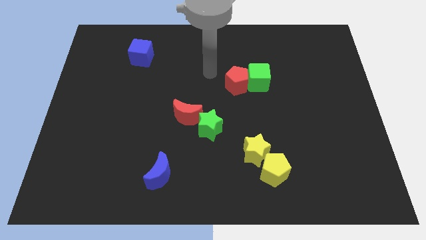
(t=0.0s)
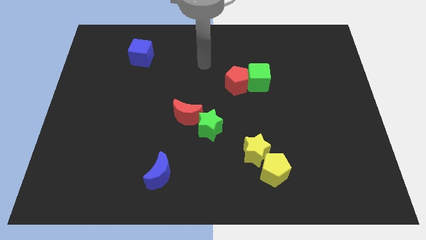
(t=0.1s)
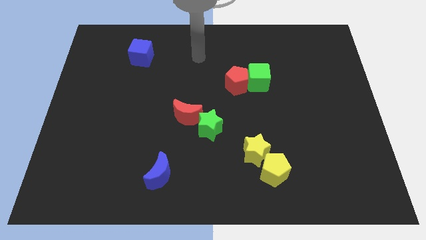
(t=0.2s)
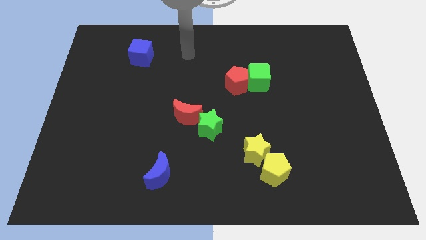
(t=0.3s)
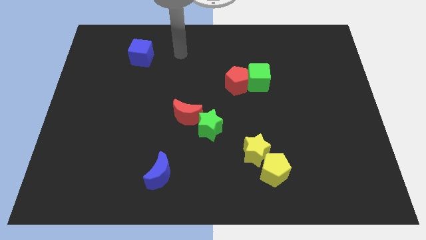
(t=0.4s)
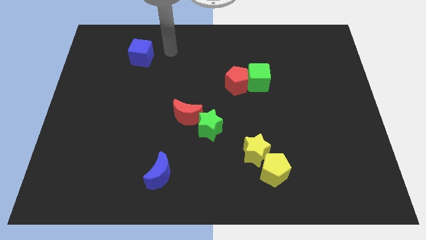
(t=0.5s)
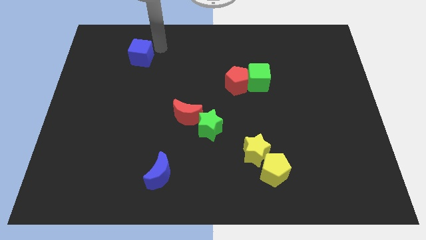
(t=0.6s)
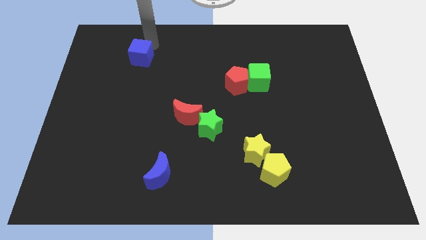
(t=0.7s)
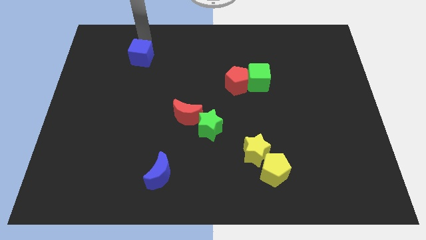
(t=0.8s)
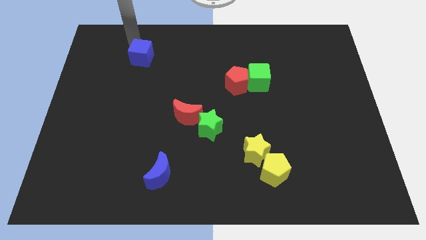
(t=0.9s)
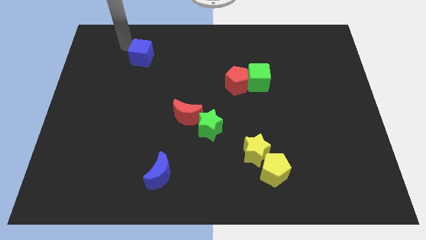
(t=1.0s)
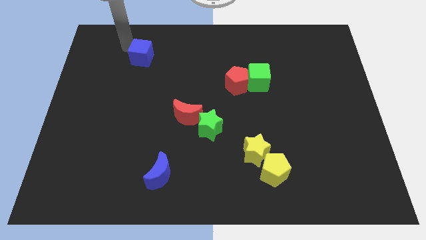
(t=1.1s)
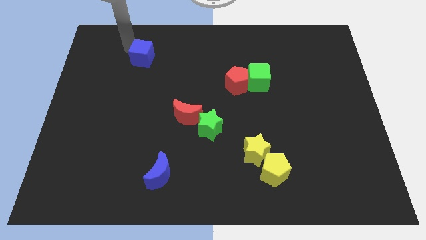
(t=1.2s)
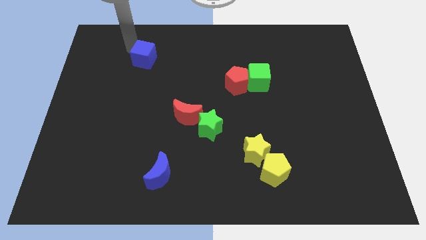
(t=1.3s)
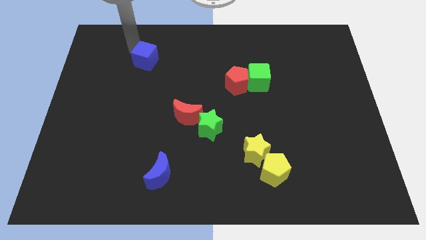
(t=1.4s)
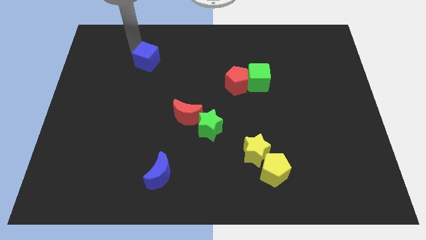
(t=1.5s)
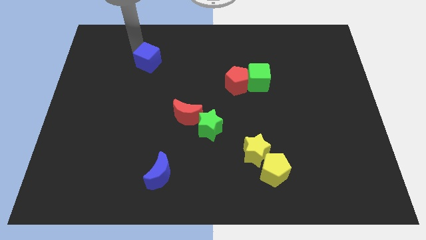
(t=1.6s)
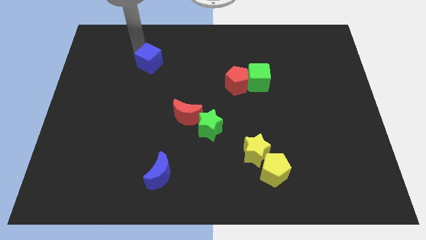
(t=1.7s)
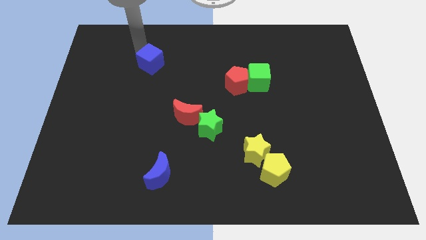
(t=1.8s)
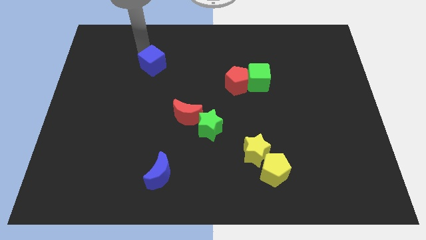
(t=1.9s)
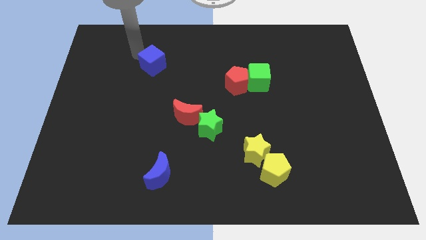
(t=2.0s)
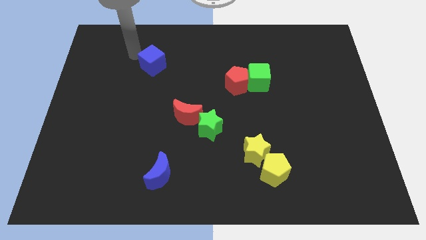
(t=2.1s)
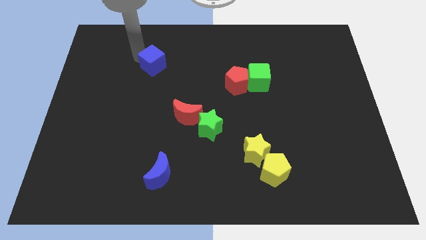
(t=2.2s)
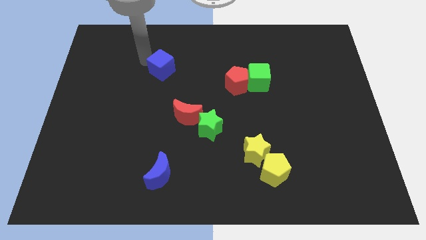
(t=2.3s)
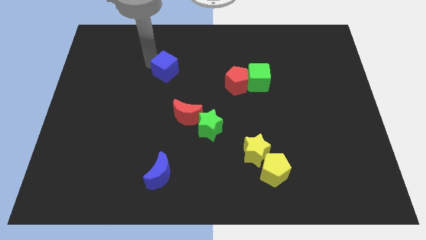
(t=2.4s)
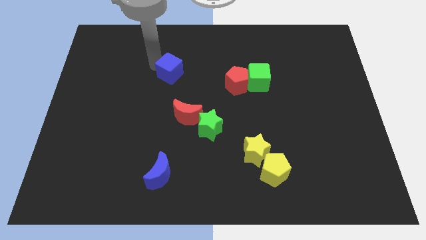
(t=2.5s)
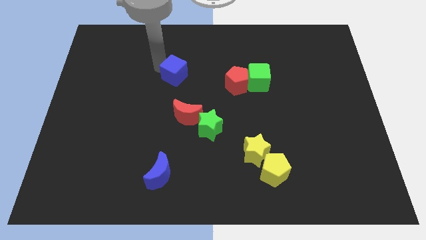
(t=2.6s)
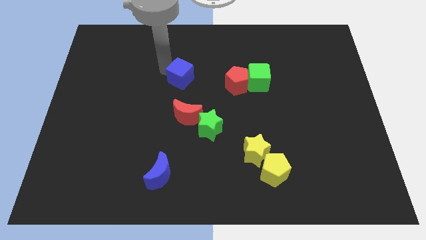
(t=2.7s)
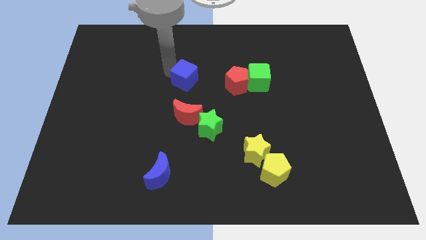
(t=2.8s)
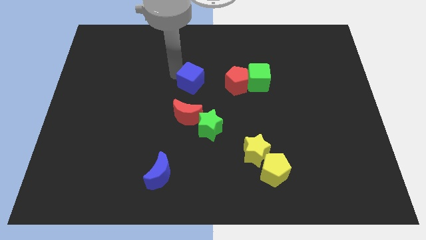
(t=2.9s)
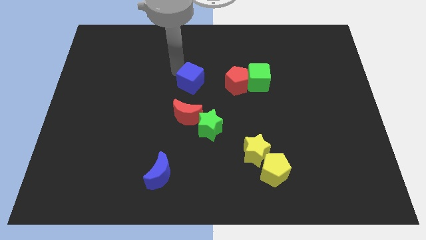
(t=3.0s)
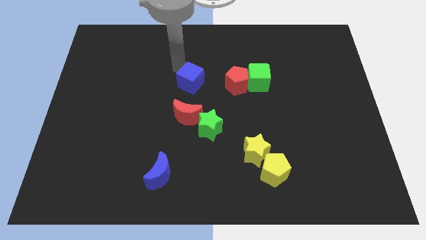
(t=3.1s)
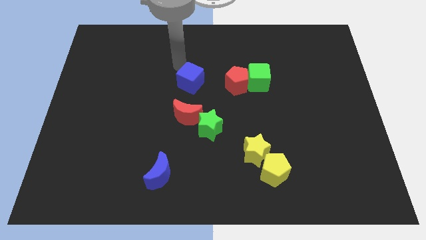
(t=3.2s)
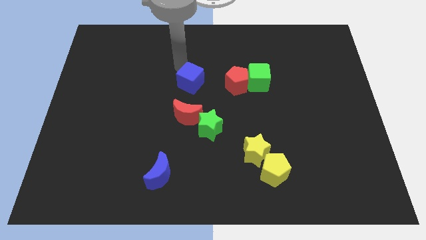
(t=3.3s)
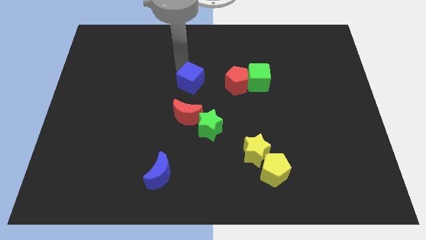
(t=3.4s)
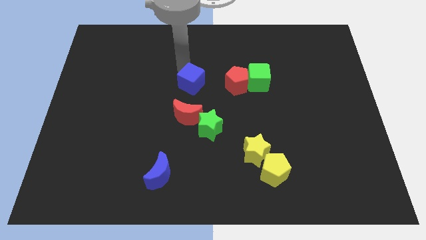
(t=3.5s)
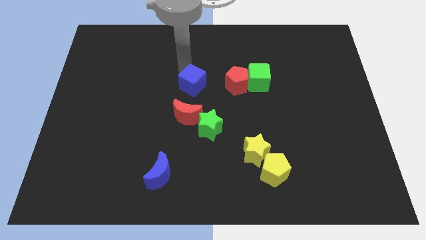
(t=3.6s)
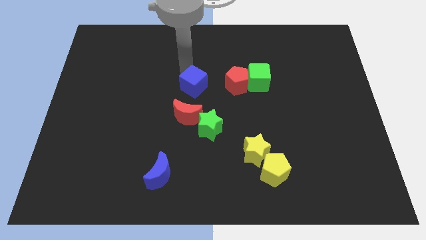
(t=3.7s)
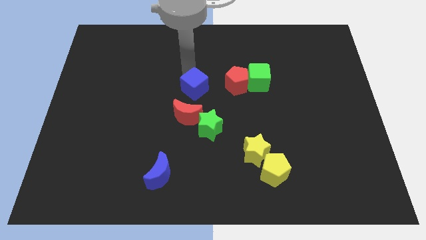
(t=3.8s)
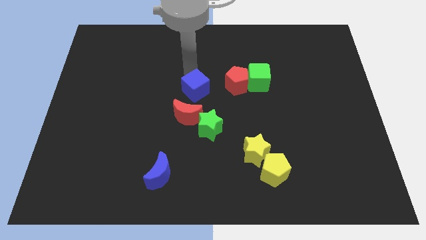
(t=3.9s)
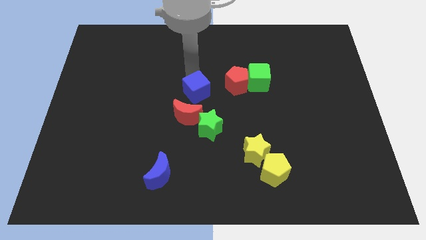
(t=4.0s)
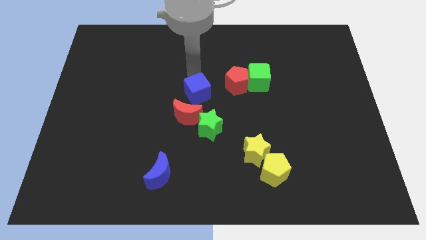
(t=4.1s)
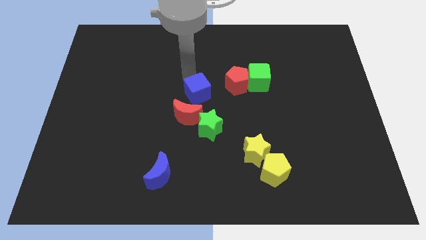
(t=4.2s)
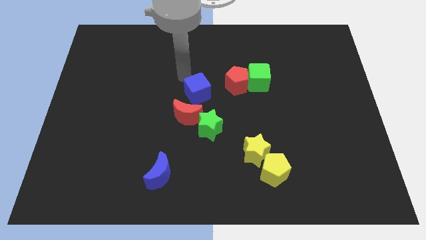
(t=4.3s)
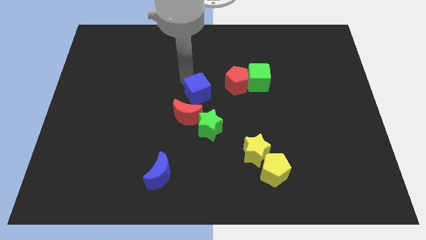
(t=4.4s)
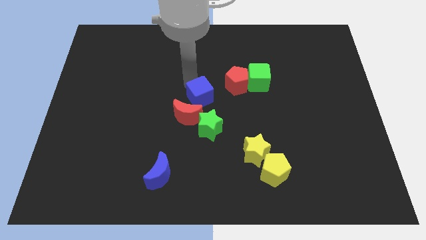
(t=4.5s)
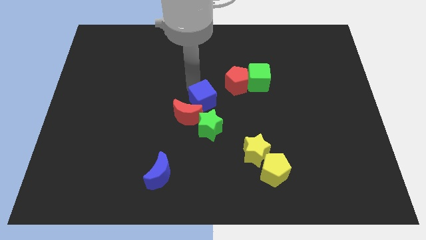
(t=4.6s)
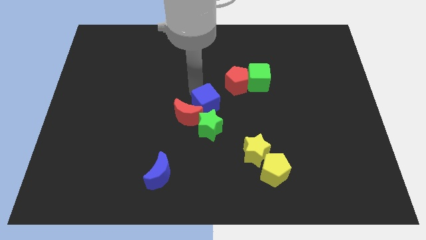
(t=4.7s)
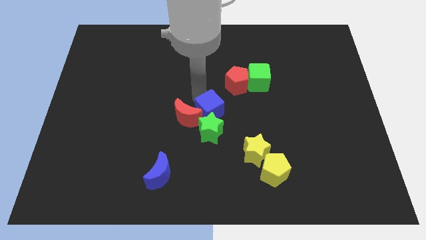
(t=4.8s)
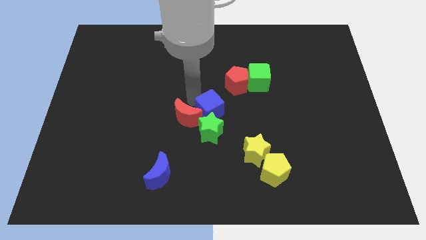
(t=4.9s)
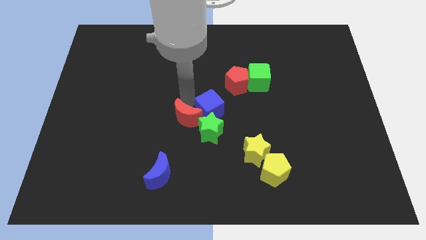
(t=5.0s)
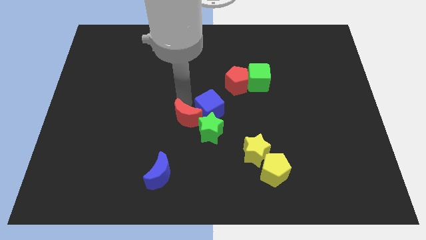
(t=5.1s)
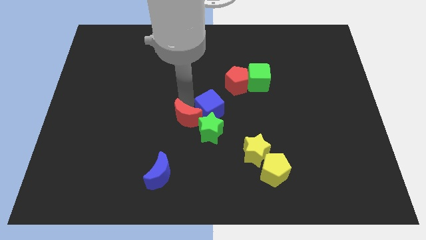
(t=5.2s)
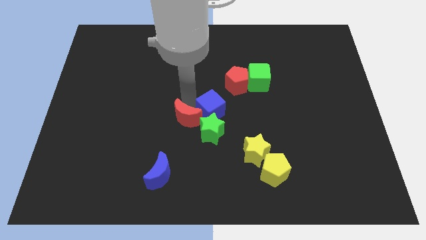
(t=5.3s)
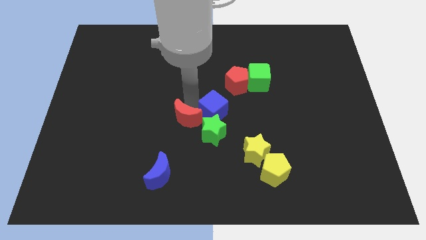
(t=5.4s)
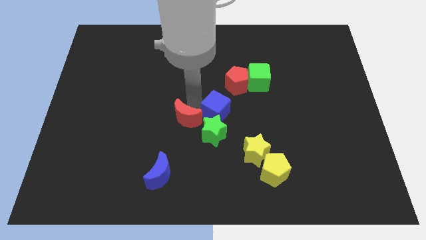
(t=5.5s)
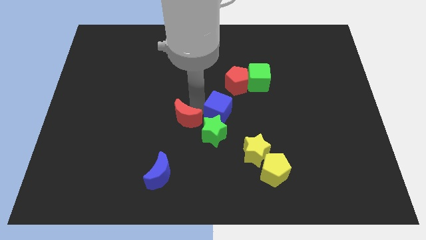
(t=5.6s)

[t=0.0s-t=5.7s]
push the blue cube to the bottom side of the red pentagon

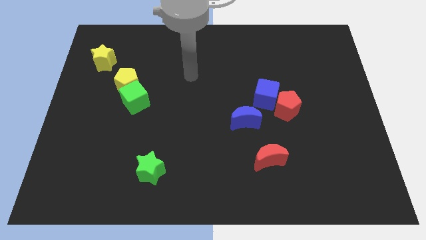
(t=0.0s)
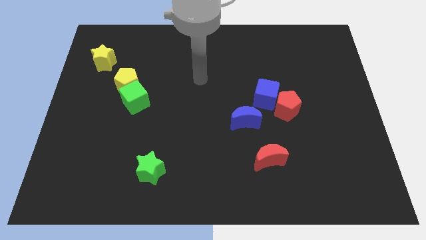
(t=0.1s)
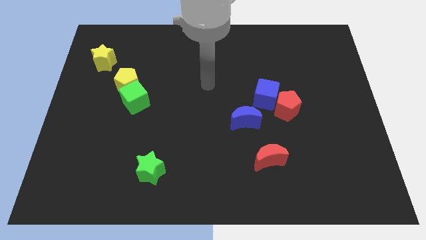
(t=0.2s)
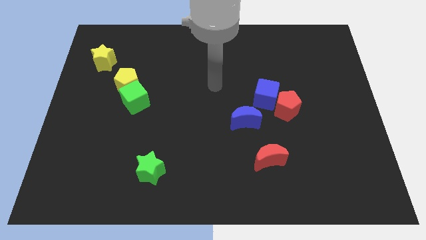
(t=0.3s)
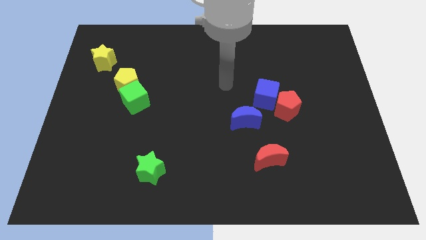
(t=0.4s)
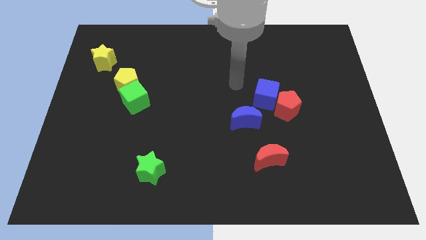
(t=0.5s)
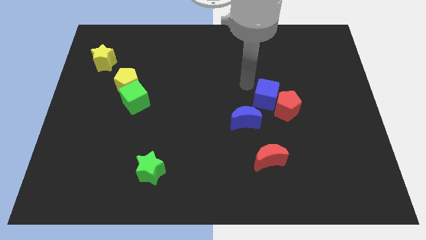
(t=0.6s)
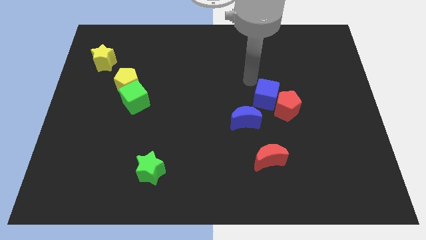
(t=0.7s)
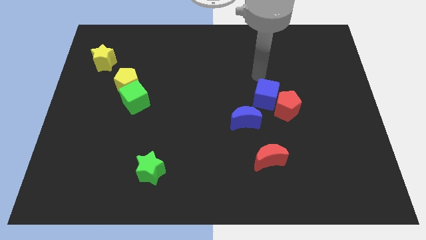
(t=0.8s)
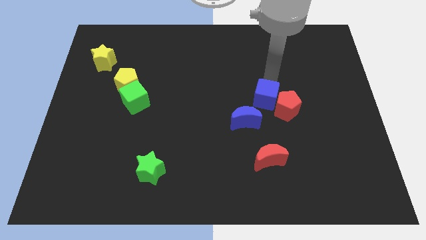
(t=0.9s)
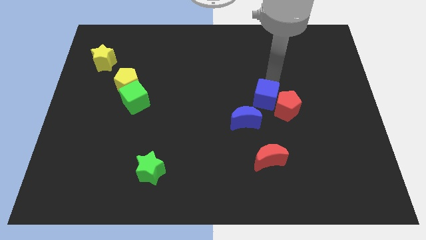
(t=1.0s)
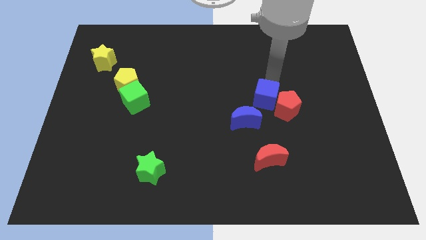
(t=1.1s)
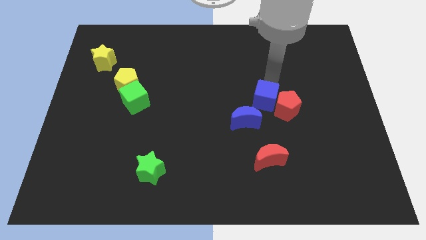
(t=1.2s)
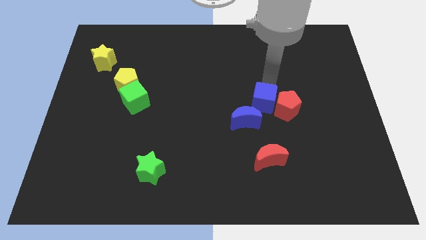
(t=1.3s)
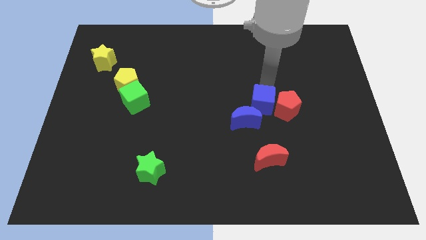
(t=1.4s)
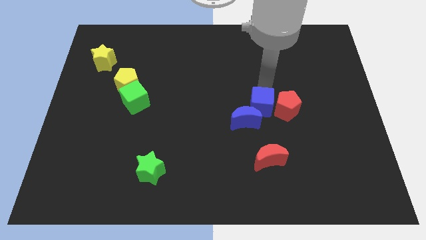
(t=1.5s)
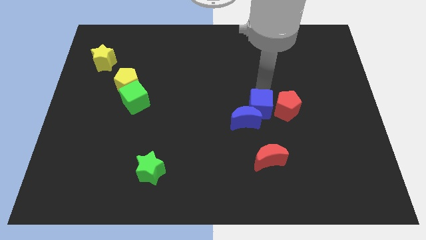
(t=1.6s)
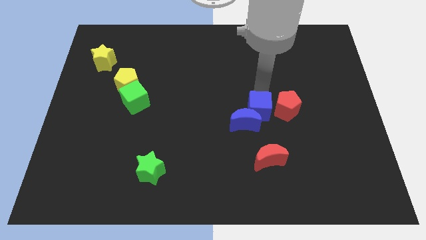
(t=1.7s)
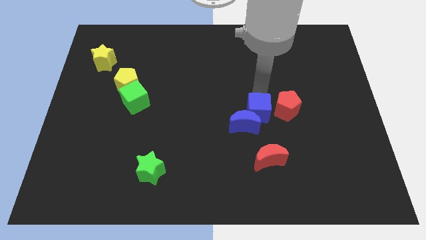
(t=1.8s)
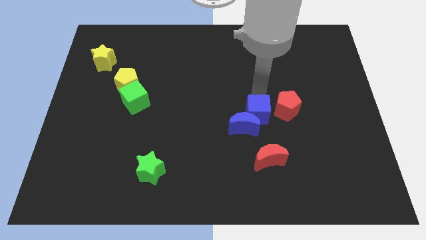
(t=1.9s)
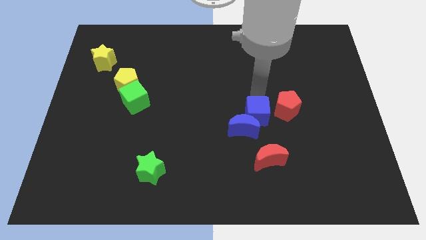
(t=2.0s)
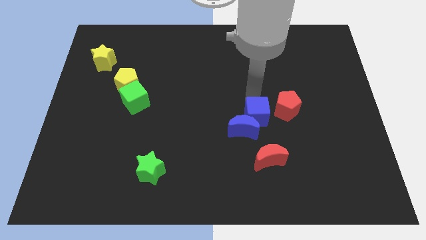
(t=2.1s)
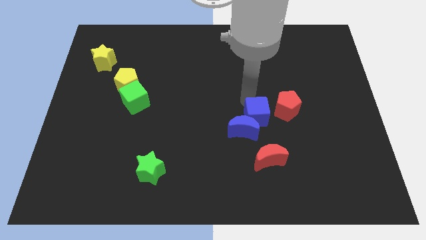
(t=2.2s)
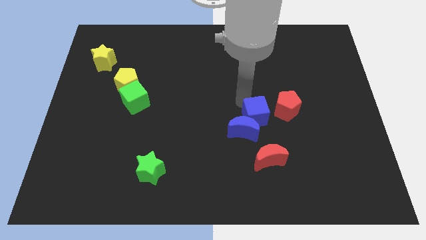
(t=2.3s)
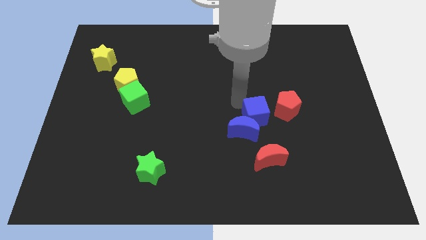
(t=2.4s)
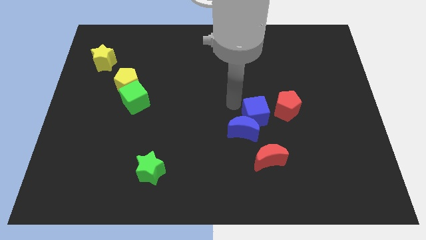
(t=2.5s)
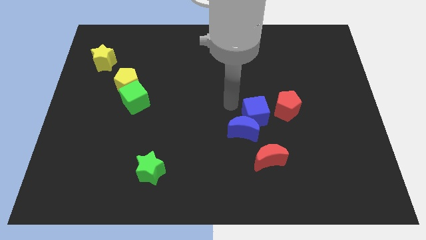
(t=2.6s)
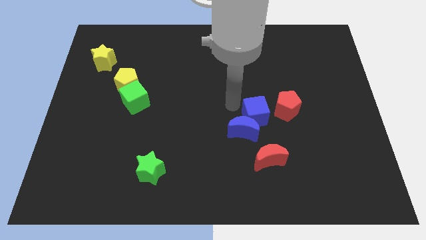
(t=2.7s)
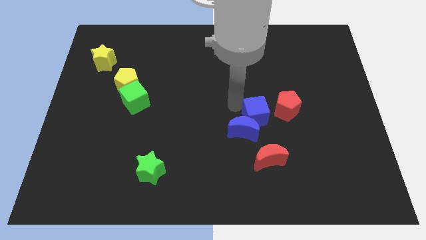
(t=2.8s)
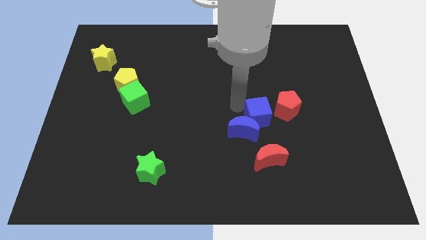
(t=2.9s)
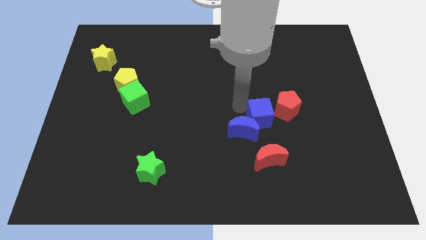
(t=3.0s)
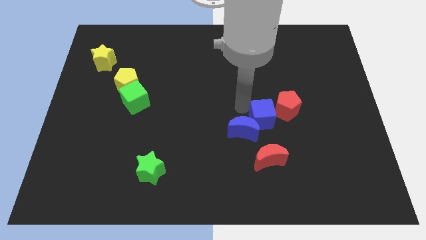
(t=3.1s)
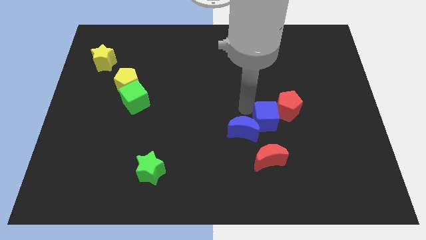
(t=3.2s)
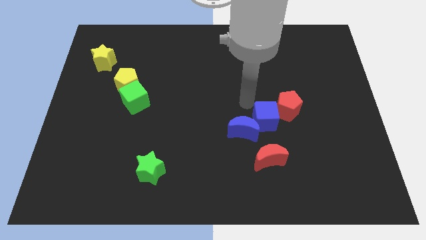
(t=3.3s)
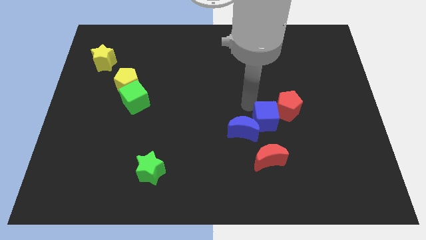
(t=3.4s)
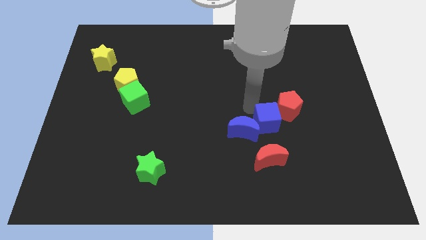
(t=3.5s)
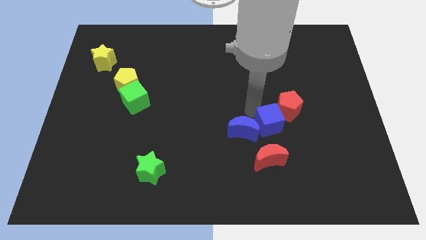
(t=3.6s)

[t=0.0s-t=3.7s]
slide the blue cube to the bottom side of the red pentagon
